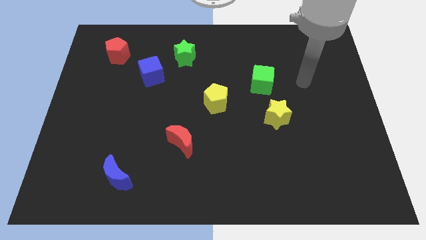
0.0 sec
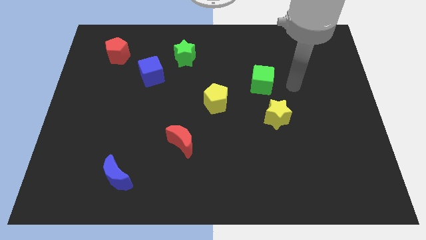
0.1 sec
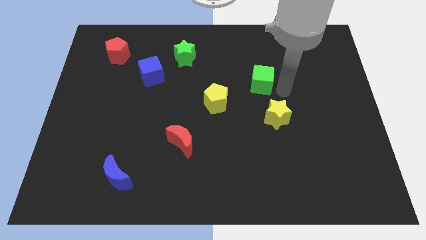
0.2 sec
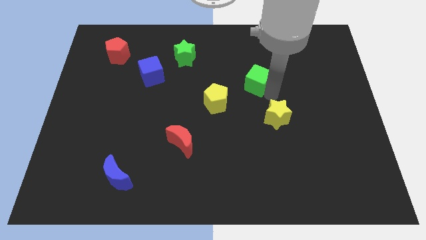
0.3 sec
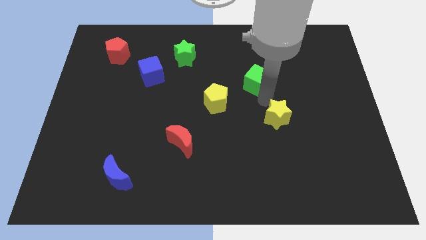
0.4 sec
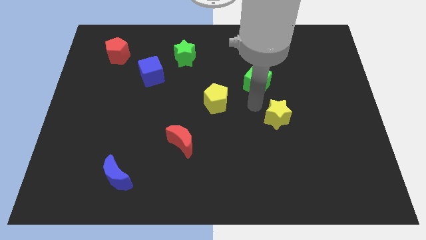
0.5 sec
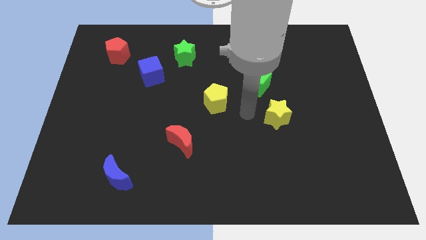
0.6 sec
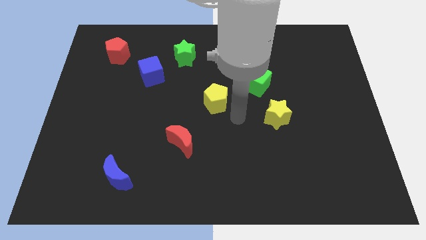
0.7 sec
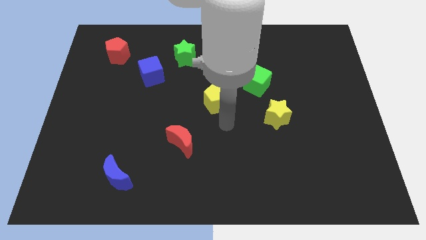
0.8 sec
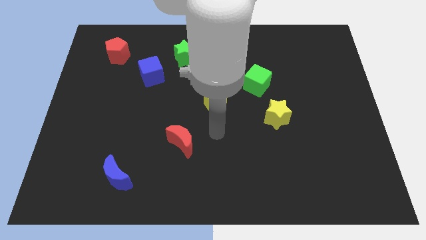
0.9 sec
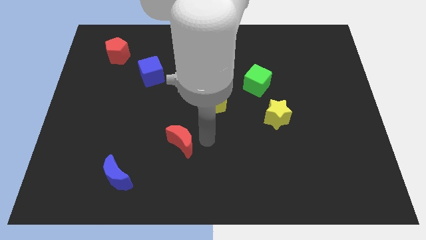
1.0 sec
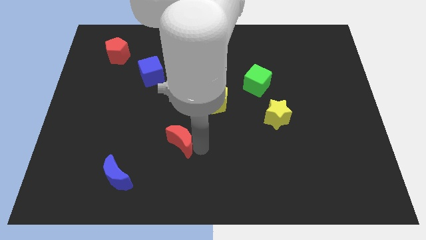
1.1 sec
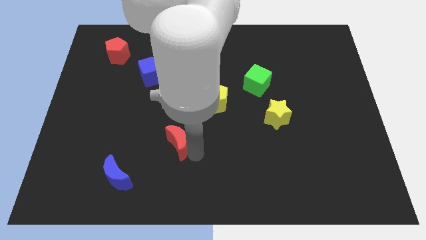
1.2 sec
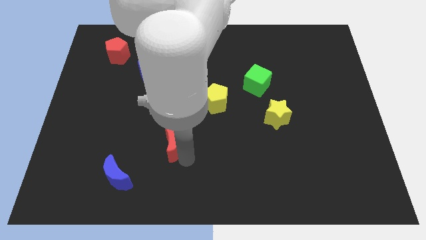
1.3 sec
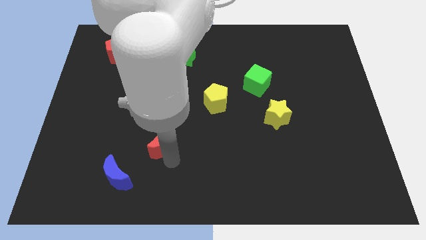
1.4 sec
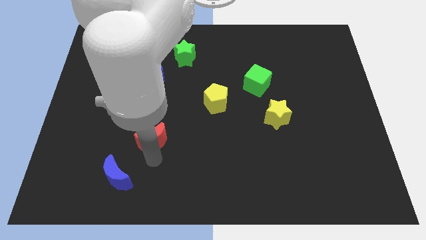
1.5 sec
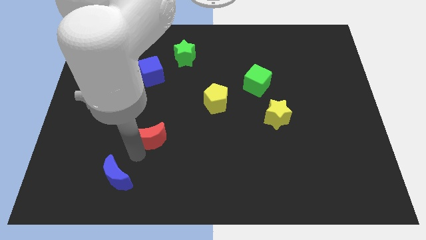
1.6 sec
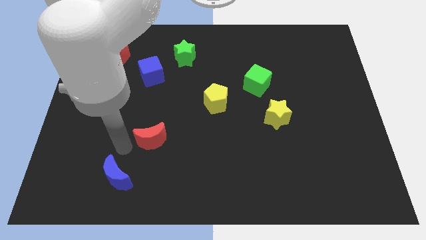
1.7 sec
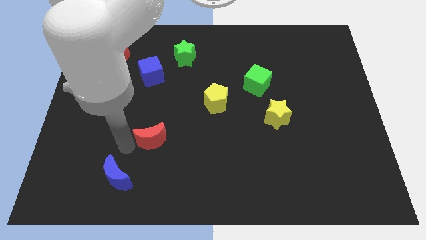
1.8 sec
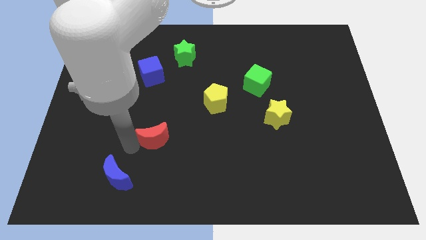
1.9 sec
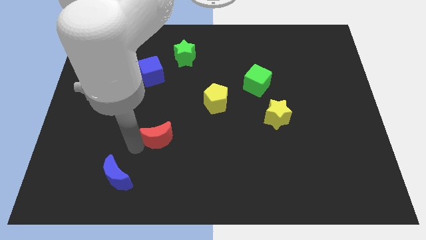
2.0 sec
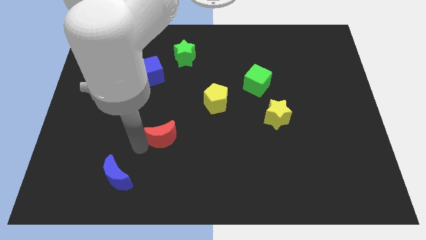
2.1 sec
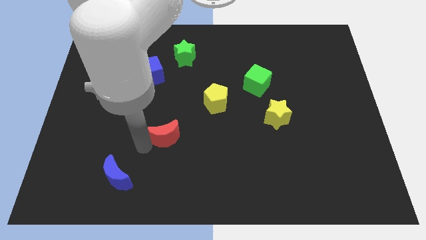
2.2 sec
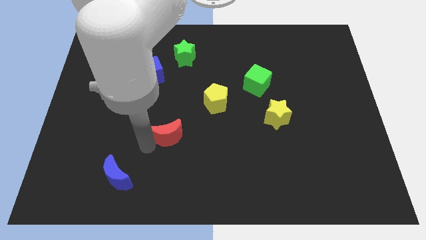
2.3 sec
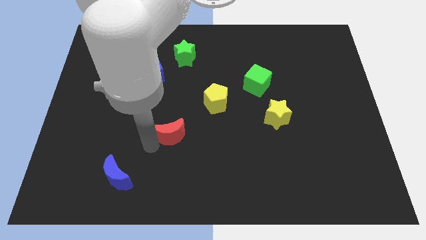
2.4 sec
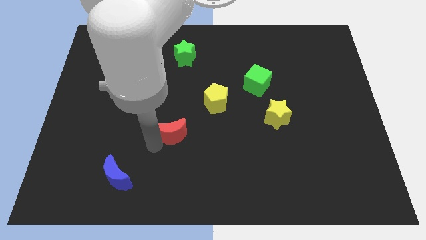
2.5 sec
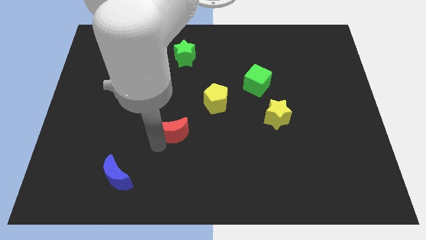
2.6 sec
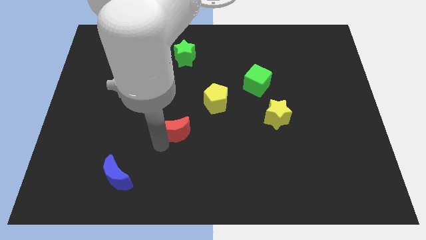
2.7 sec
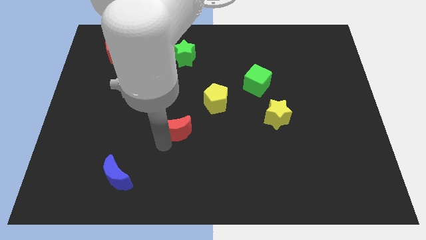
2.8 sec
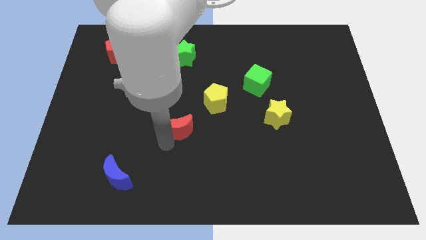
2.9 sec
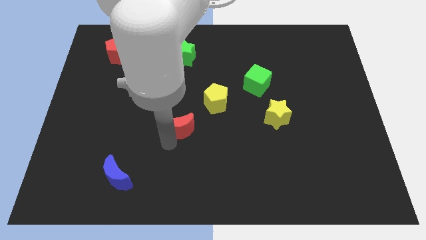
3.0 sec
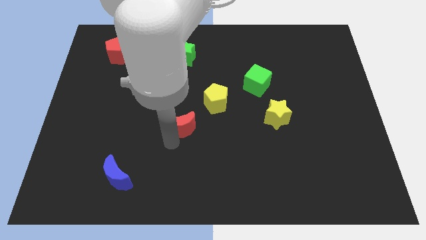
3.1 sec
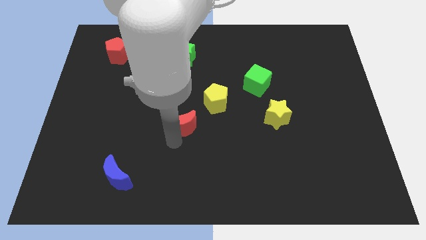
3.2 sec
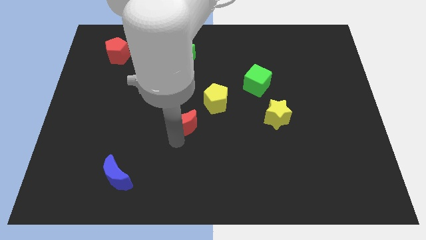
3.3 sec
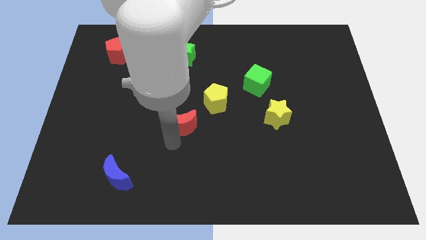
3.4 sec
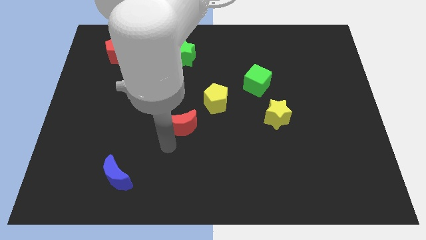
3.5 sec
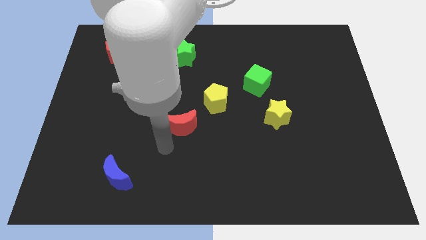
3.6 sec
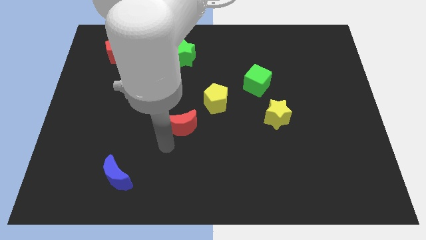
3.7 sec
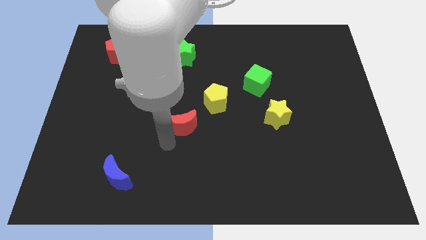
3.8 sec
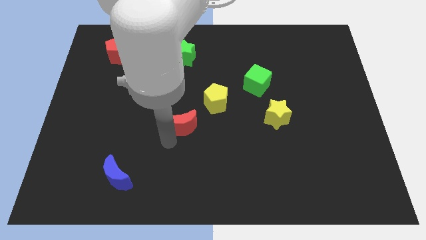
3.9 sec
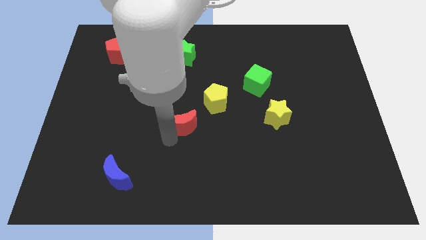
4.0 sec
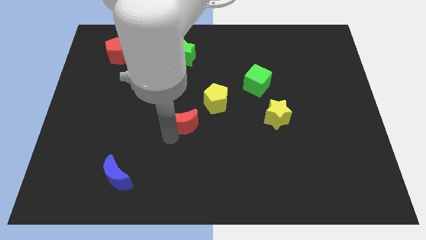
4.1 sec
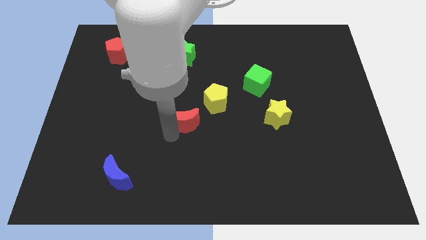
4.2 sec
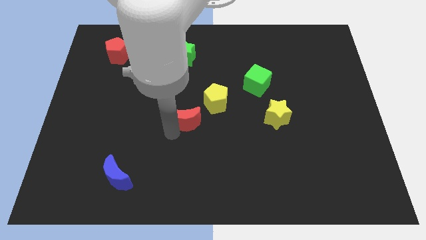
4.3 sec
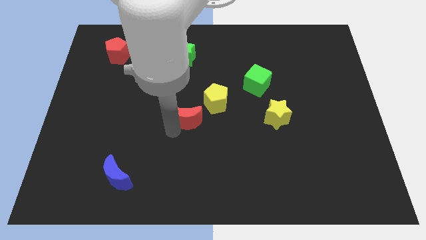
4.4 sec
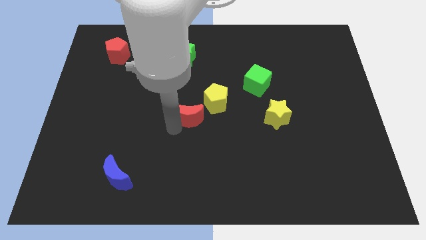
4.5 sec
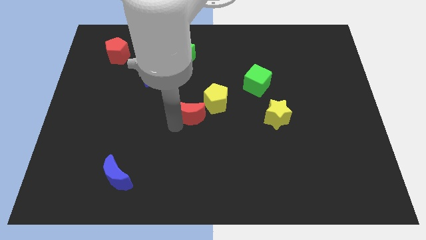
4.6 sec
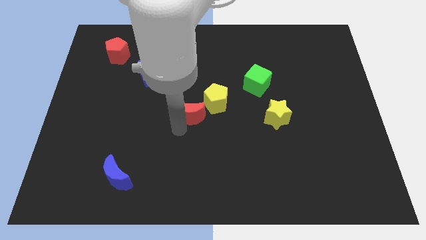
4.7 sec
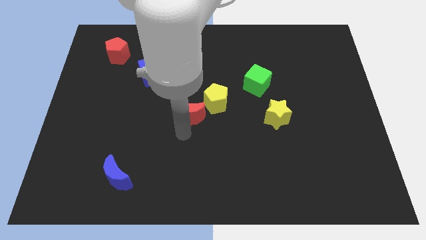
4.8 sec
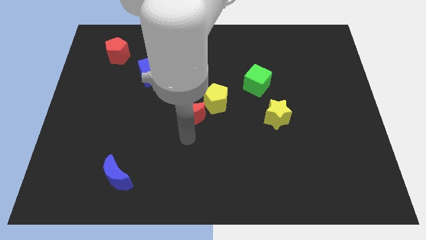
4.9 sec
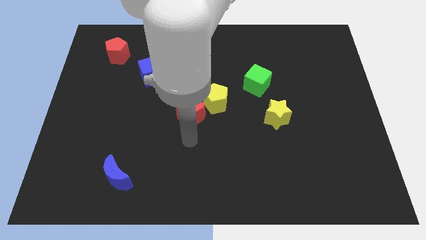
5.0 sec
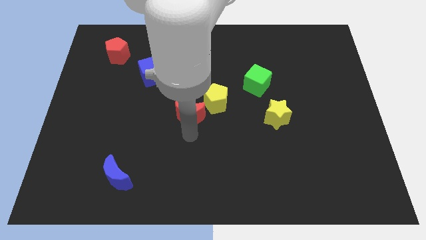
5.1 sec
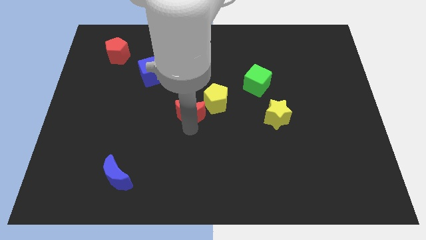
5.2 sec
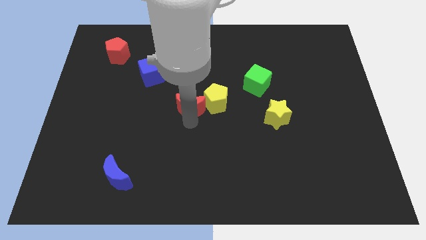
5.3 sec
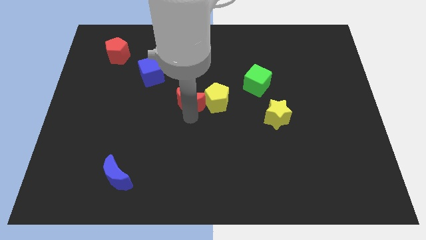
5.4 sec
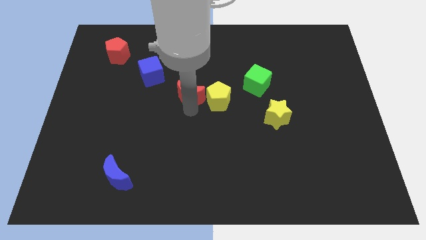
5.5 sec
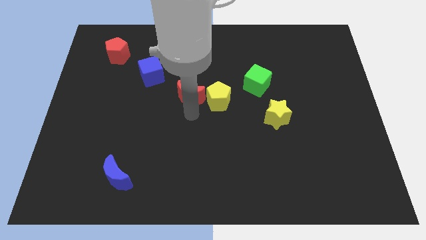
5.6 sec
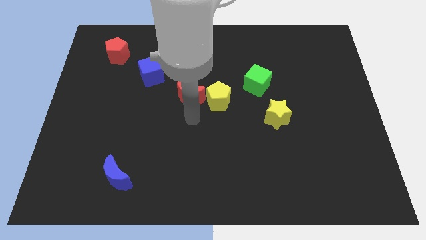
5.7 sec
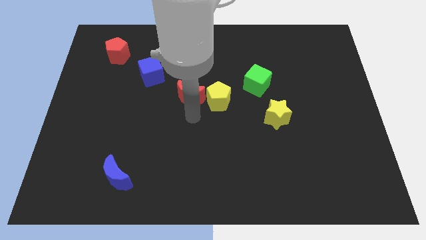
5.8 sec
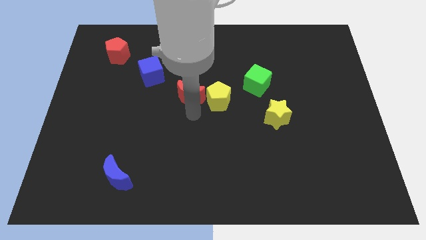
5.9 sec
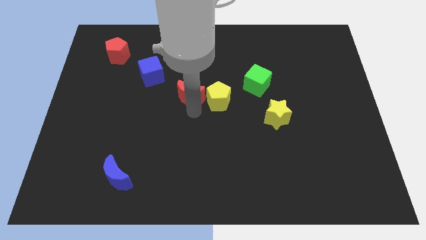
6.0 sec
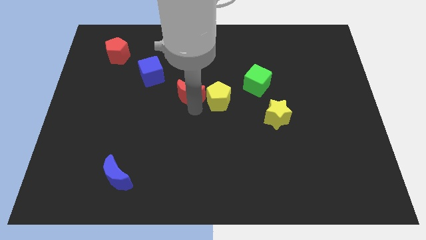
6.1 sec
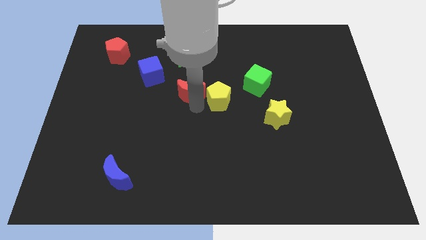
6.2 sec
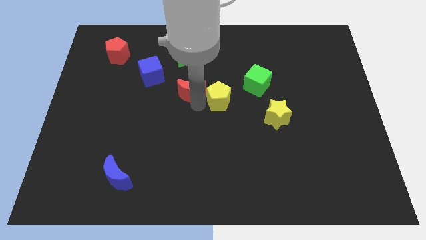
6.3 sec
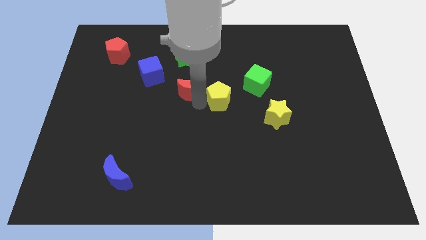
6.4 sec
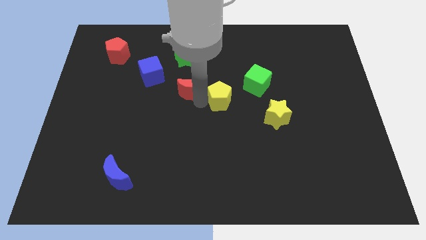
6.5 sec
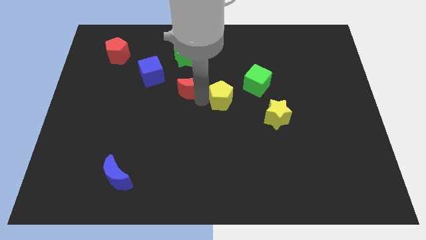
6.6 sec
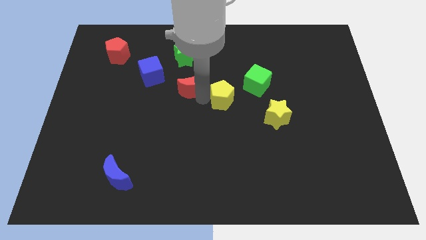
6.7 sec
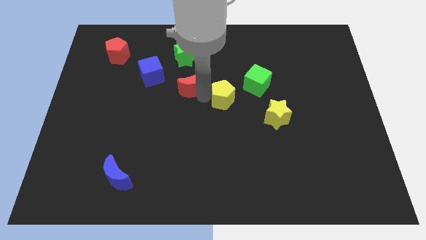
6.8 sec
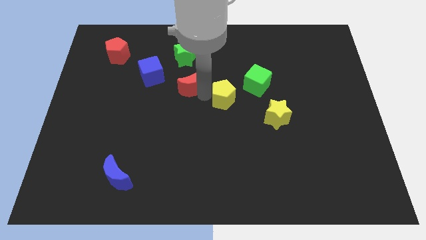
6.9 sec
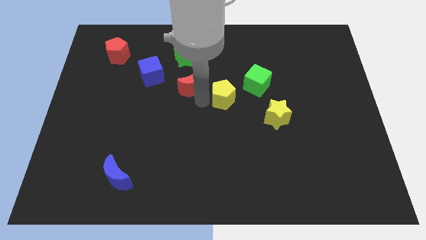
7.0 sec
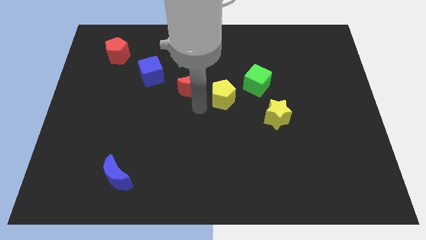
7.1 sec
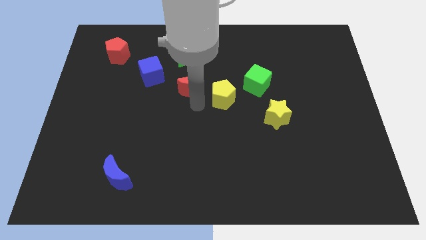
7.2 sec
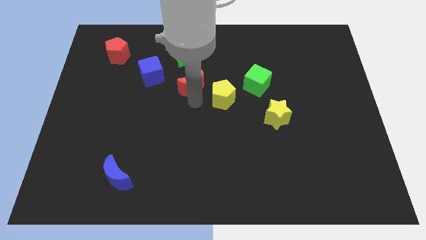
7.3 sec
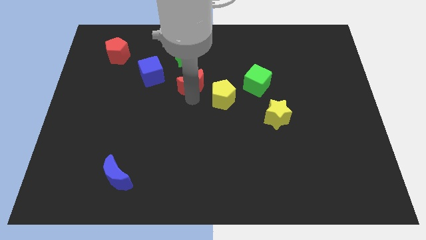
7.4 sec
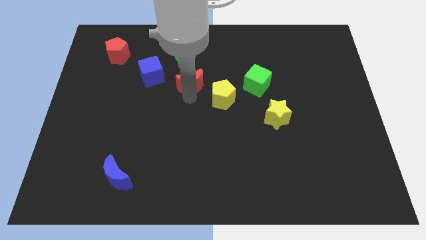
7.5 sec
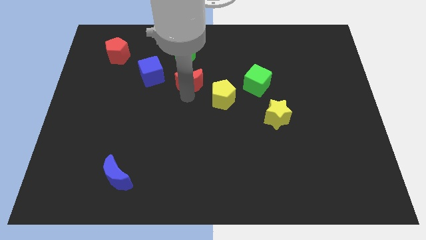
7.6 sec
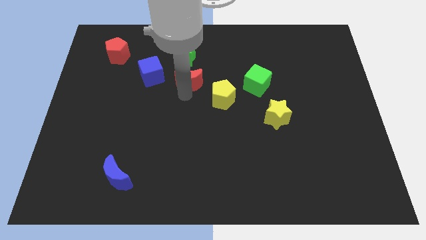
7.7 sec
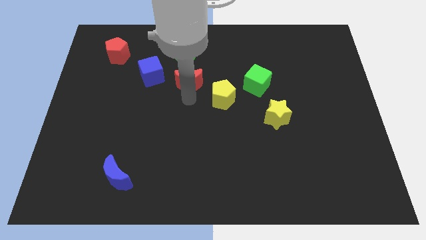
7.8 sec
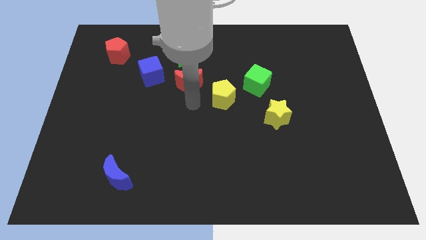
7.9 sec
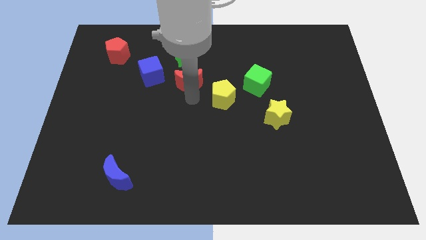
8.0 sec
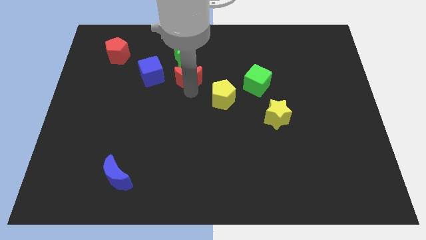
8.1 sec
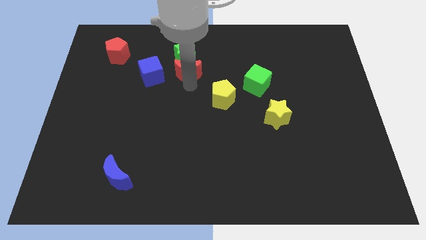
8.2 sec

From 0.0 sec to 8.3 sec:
move the red moon next to the green star
